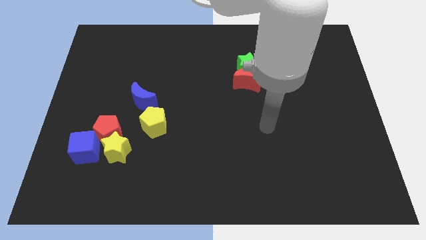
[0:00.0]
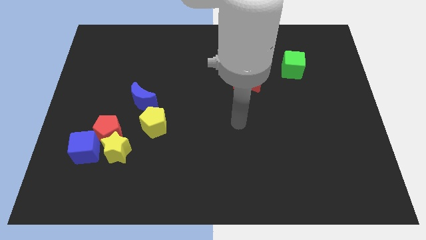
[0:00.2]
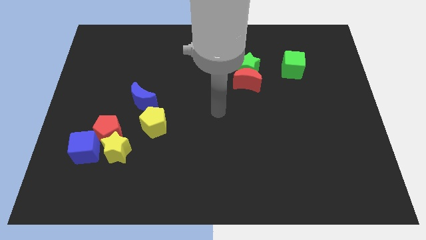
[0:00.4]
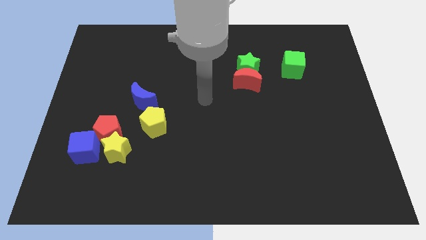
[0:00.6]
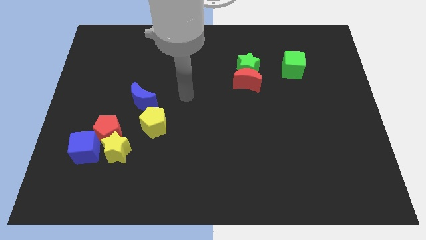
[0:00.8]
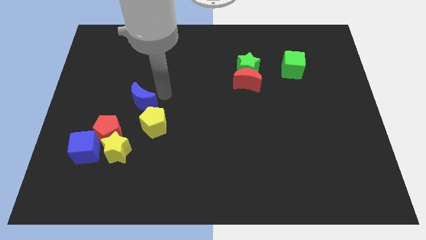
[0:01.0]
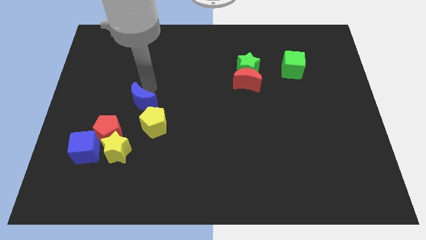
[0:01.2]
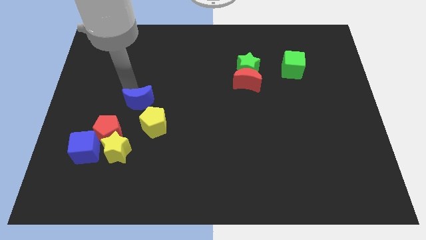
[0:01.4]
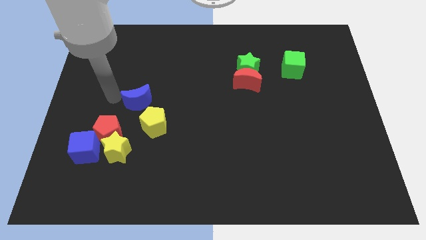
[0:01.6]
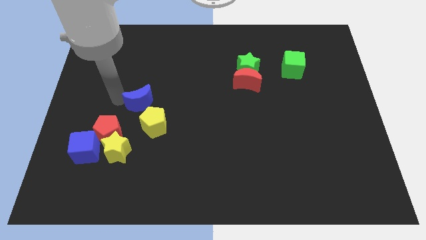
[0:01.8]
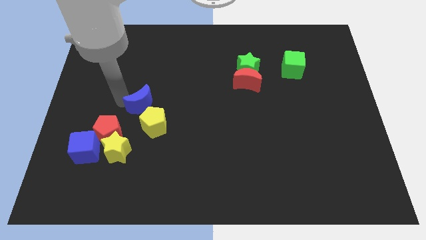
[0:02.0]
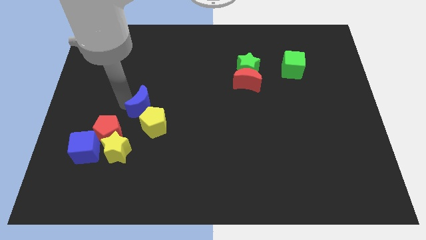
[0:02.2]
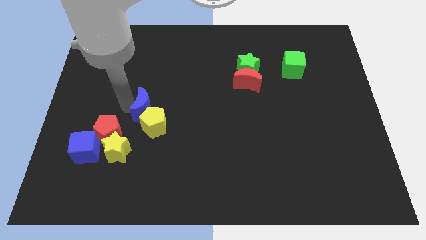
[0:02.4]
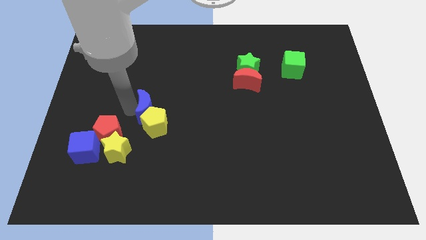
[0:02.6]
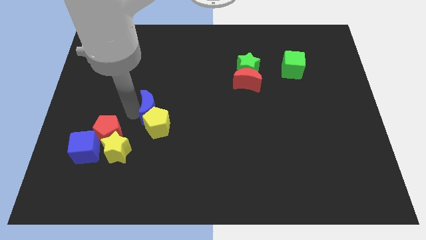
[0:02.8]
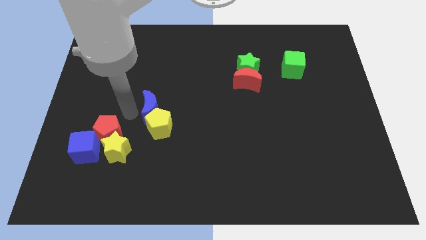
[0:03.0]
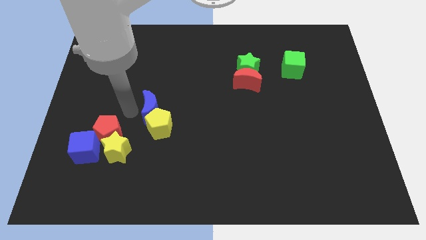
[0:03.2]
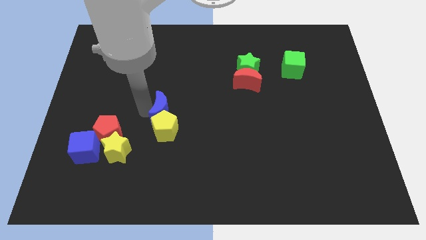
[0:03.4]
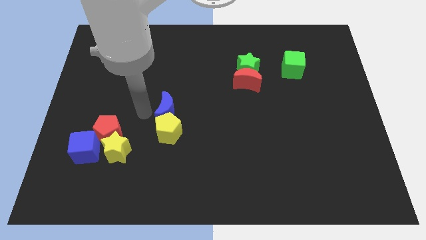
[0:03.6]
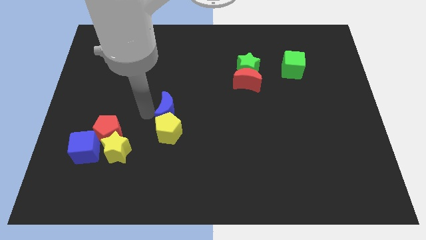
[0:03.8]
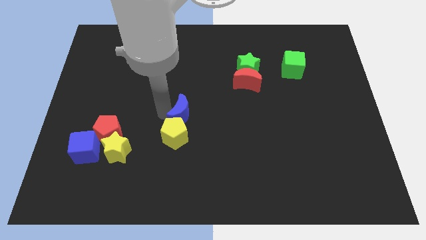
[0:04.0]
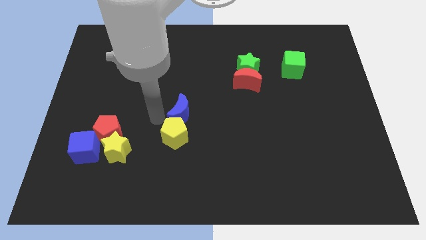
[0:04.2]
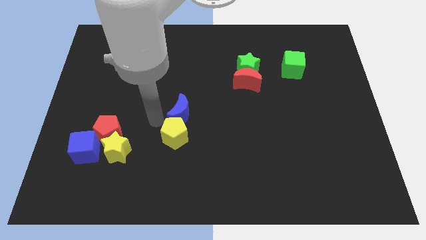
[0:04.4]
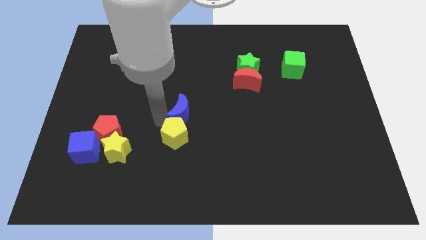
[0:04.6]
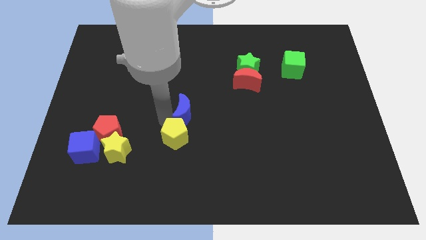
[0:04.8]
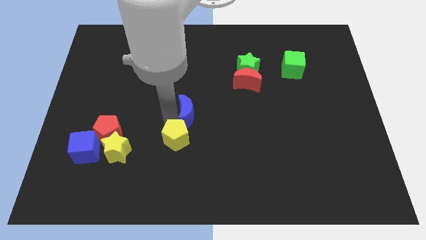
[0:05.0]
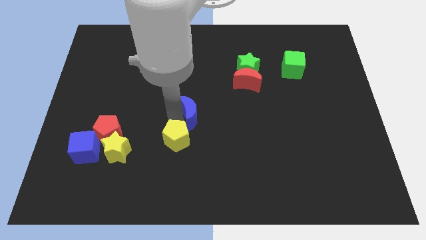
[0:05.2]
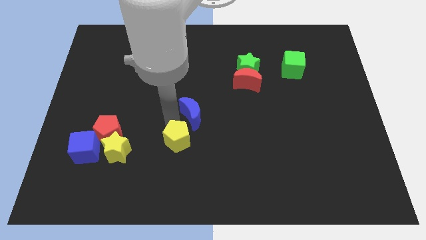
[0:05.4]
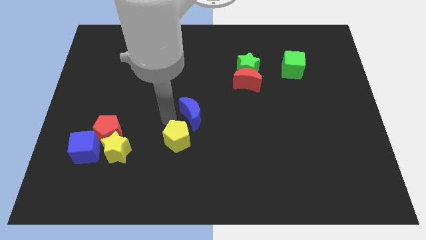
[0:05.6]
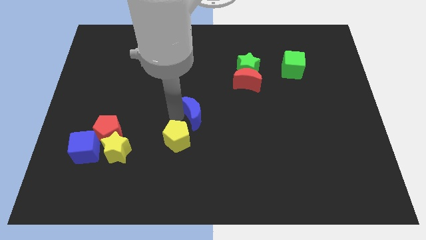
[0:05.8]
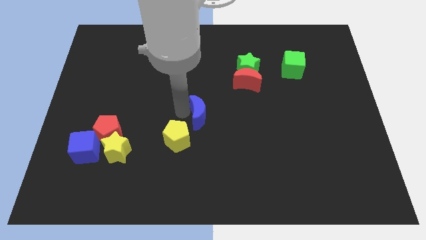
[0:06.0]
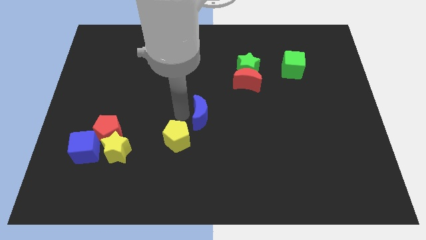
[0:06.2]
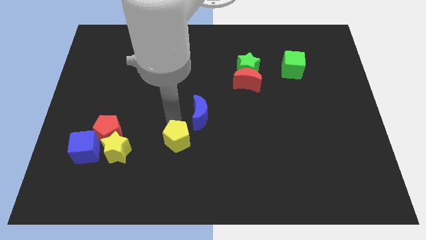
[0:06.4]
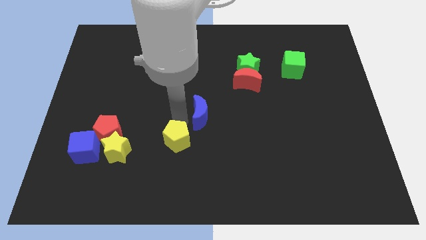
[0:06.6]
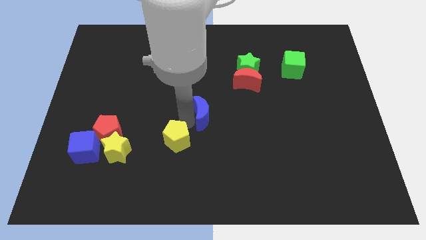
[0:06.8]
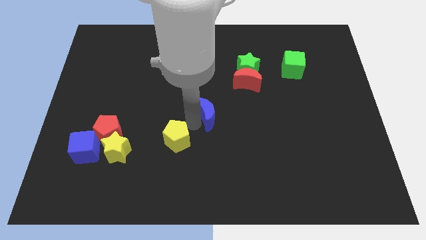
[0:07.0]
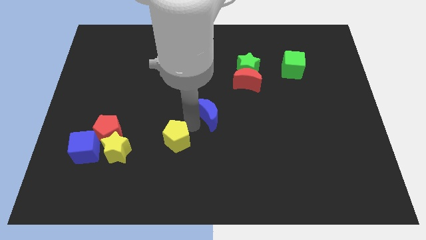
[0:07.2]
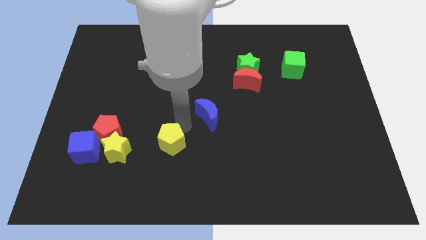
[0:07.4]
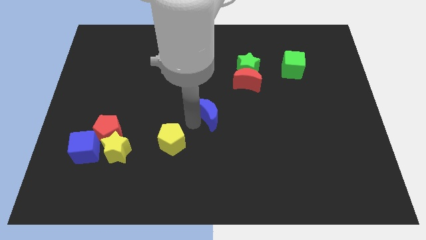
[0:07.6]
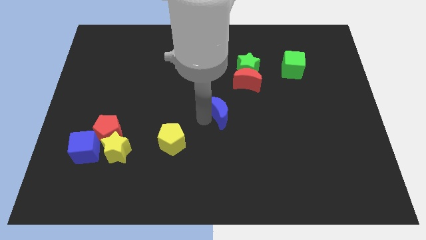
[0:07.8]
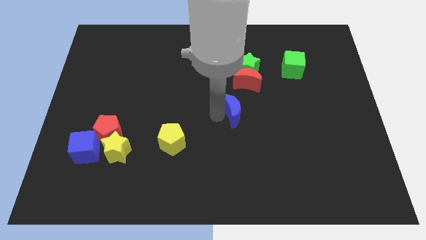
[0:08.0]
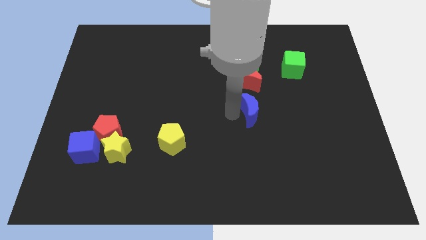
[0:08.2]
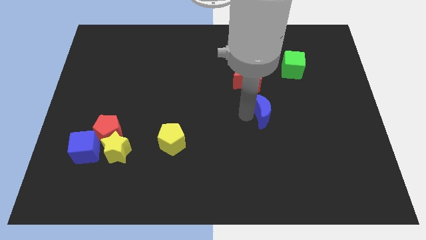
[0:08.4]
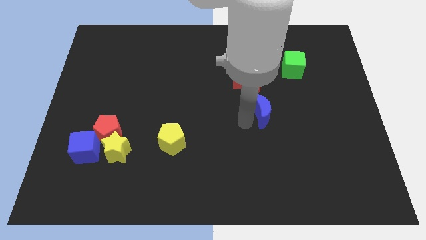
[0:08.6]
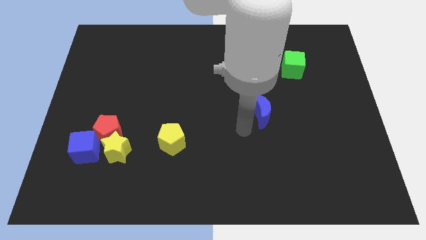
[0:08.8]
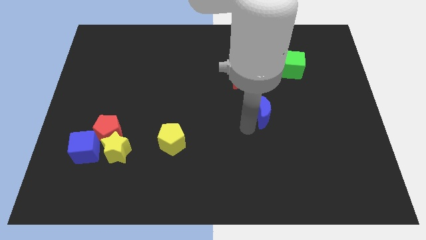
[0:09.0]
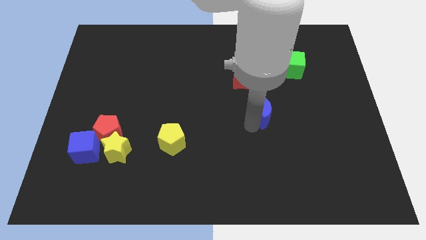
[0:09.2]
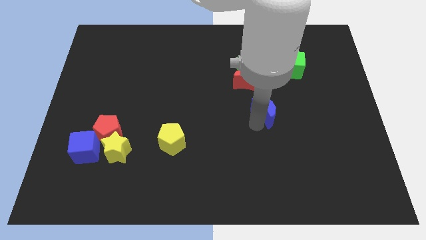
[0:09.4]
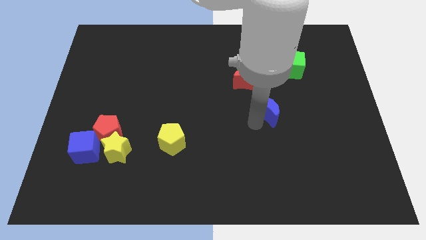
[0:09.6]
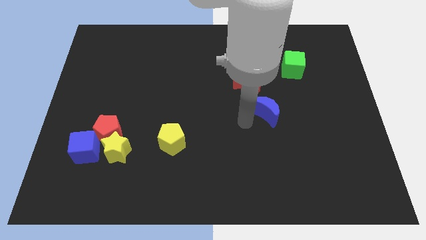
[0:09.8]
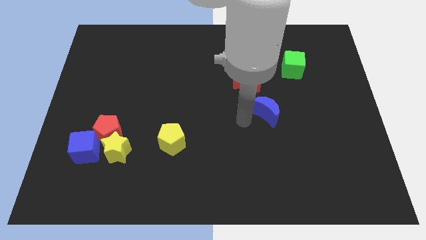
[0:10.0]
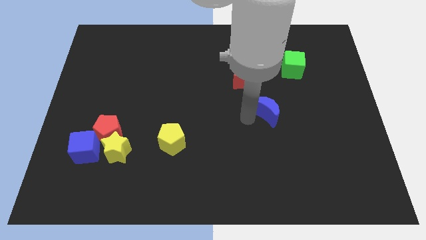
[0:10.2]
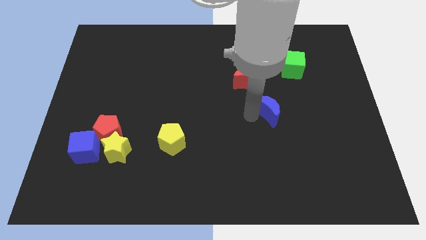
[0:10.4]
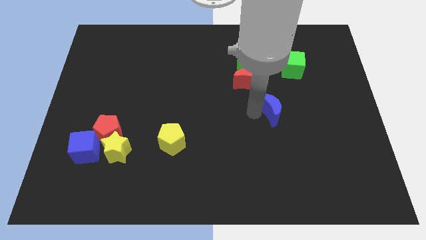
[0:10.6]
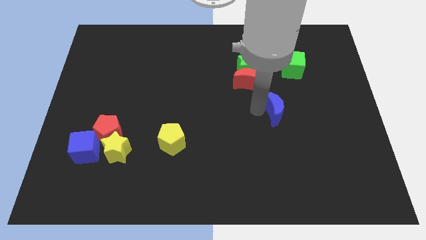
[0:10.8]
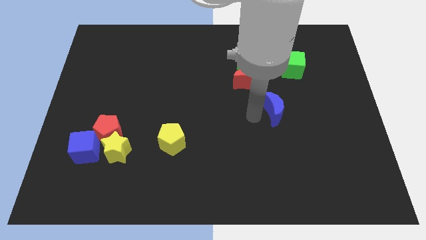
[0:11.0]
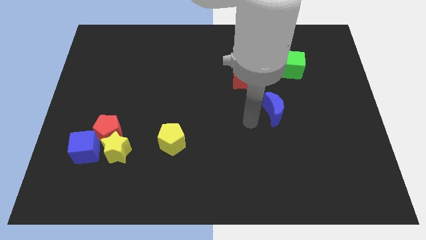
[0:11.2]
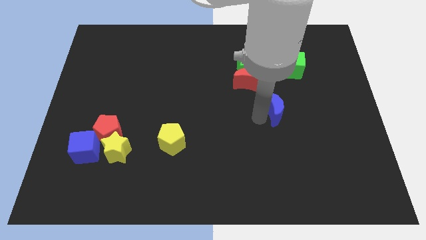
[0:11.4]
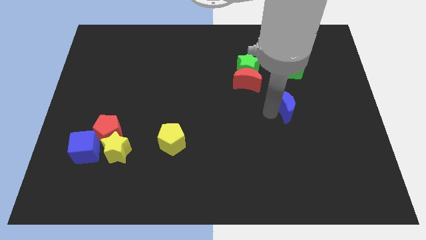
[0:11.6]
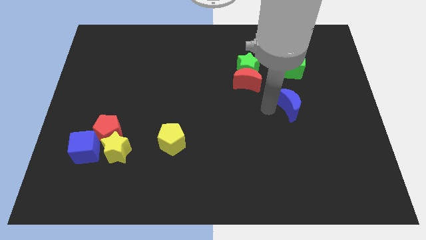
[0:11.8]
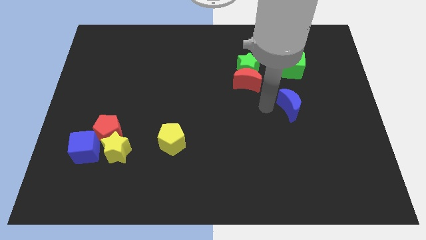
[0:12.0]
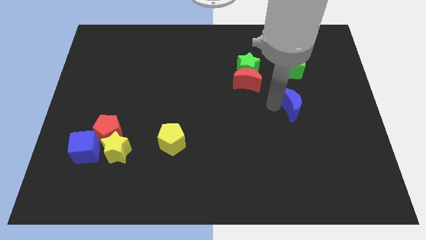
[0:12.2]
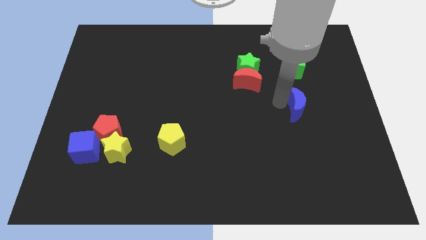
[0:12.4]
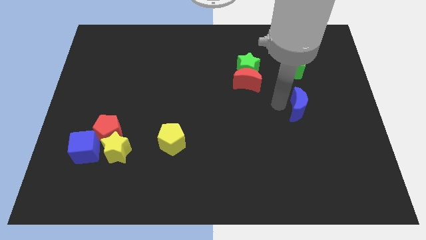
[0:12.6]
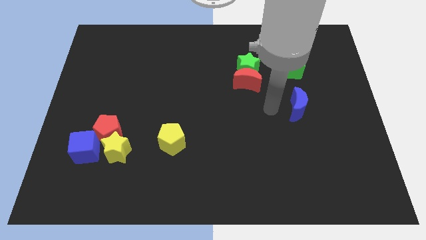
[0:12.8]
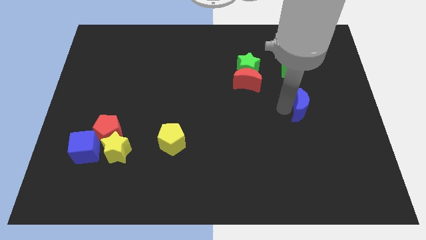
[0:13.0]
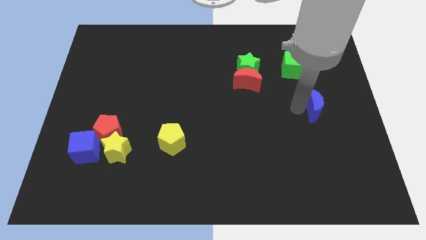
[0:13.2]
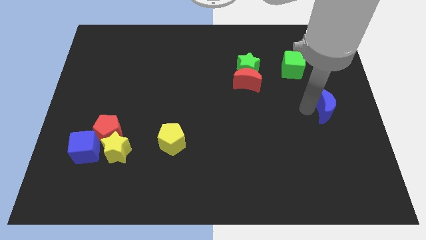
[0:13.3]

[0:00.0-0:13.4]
move the blue moon to the right side
